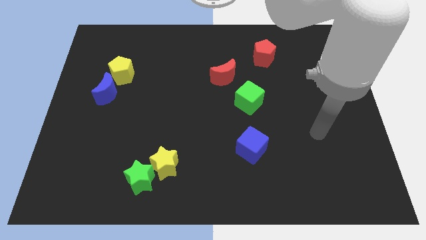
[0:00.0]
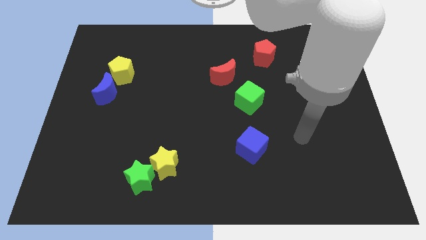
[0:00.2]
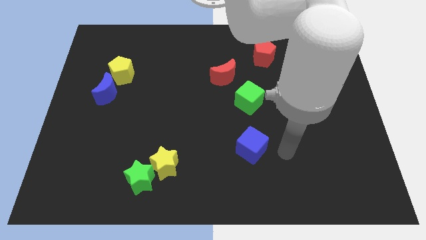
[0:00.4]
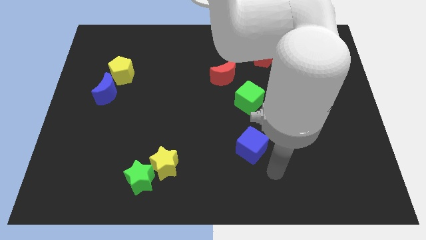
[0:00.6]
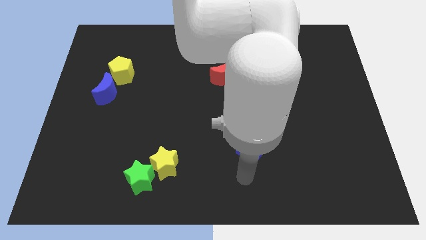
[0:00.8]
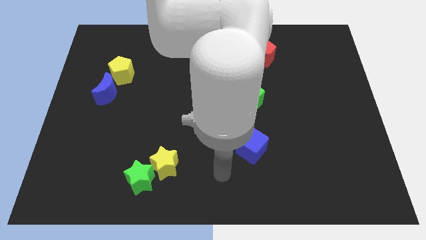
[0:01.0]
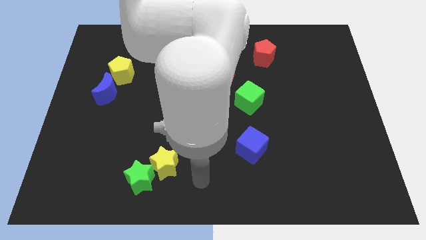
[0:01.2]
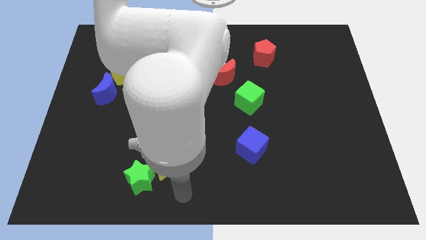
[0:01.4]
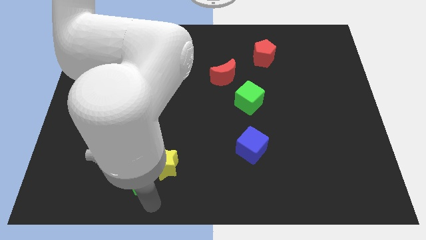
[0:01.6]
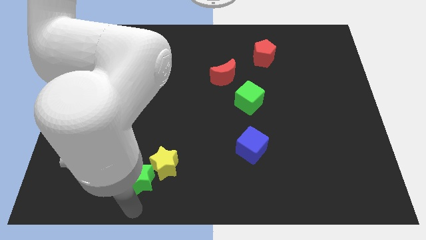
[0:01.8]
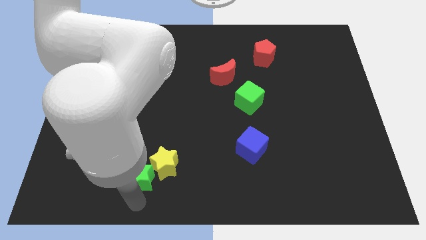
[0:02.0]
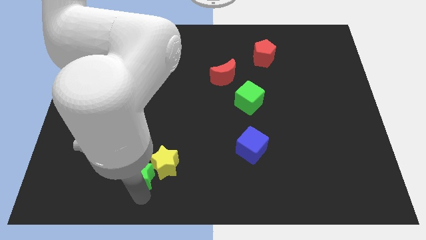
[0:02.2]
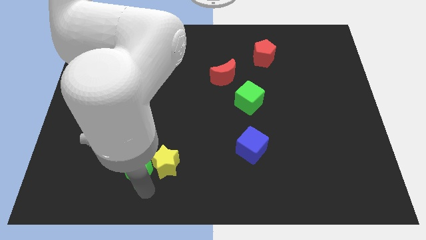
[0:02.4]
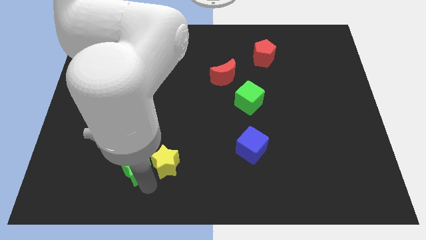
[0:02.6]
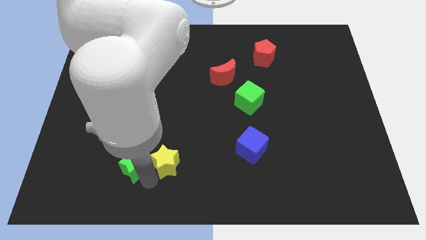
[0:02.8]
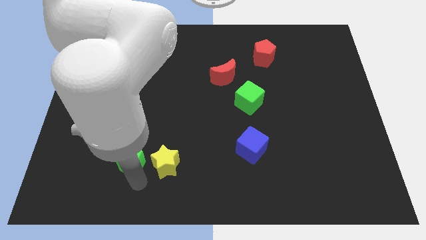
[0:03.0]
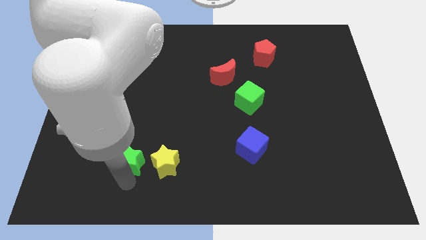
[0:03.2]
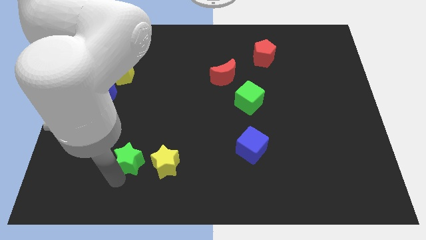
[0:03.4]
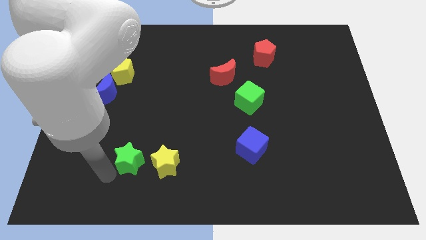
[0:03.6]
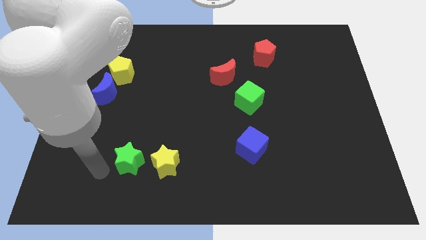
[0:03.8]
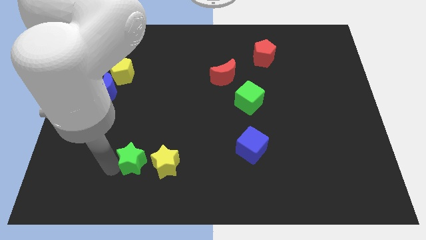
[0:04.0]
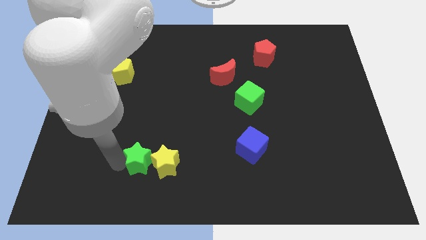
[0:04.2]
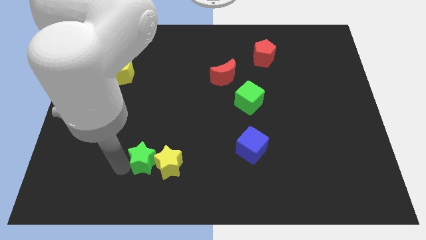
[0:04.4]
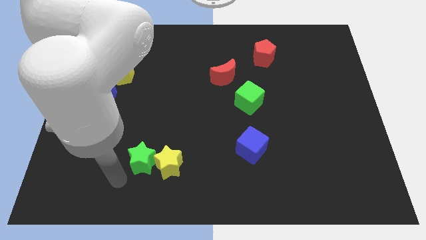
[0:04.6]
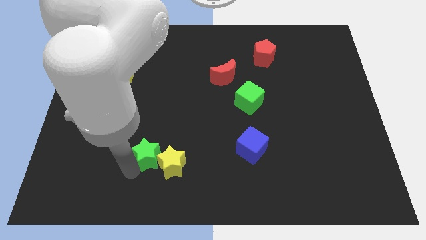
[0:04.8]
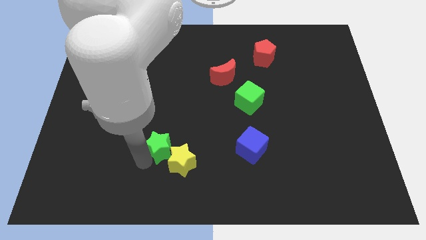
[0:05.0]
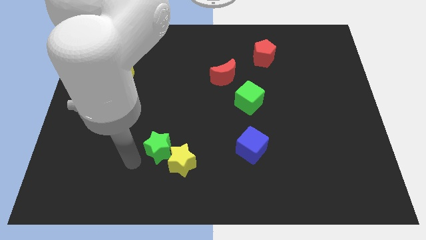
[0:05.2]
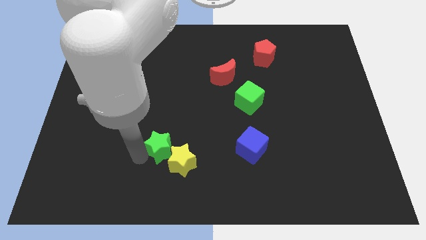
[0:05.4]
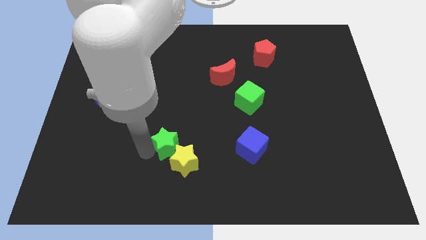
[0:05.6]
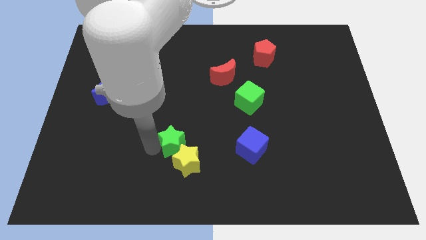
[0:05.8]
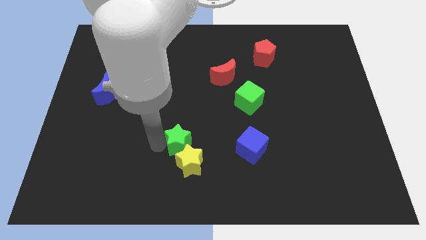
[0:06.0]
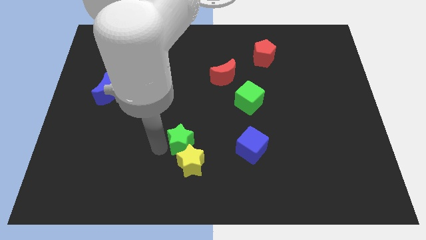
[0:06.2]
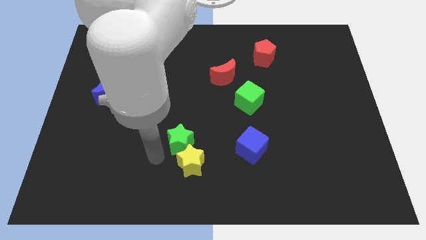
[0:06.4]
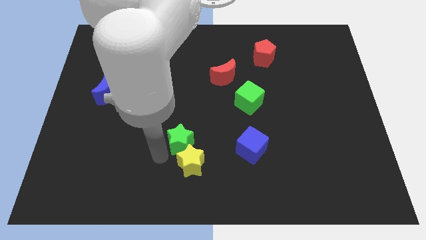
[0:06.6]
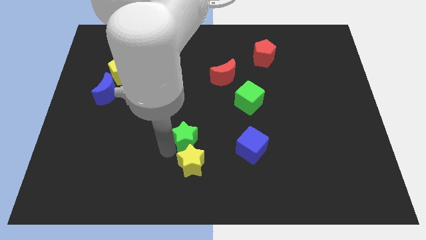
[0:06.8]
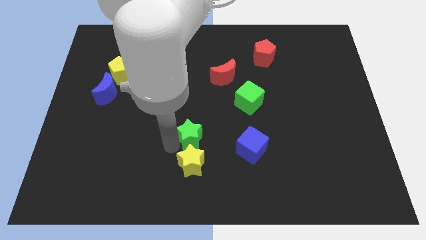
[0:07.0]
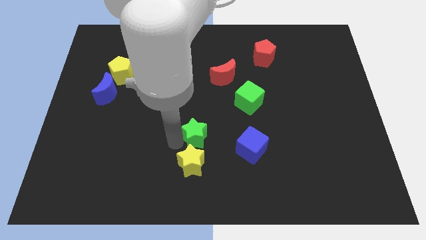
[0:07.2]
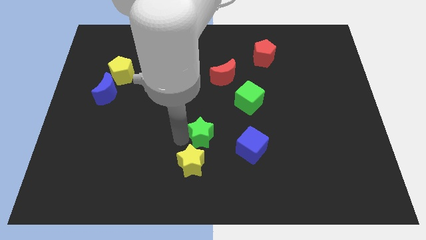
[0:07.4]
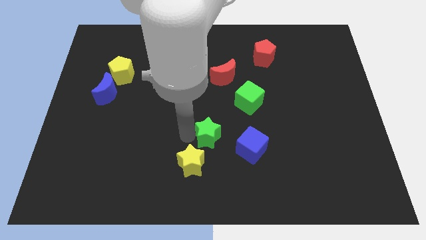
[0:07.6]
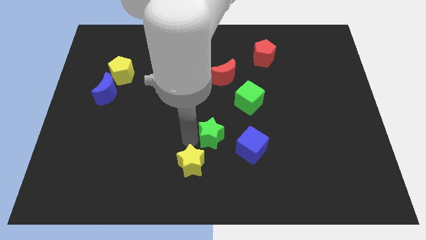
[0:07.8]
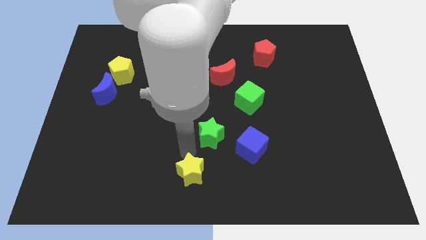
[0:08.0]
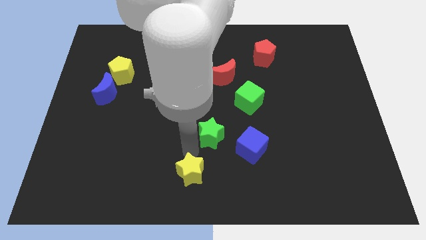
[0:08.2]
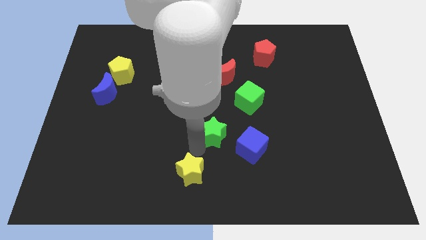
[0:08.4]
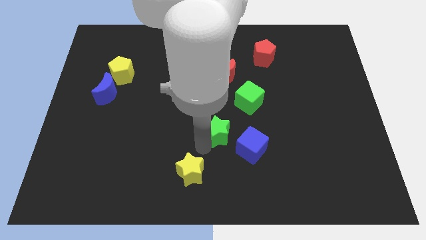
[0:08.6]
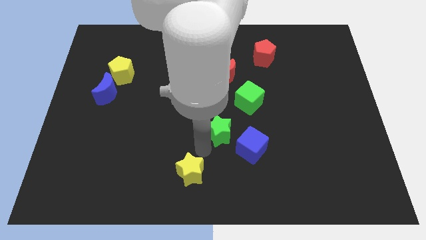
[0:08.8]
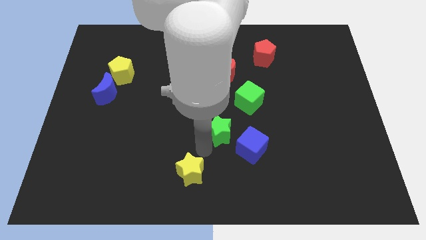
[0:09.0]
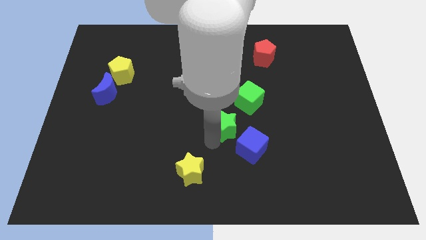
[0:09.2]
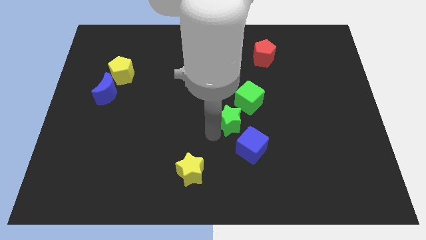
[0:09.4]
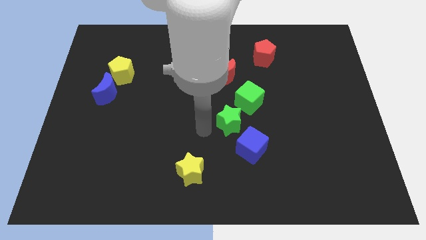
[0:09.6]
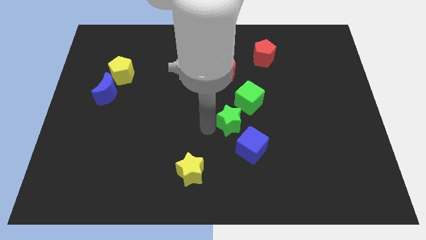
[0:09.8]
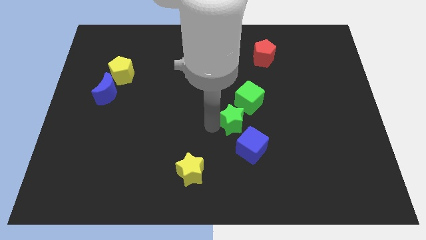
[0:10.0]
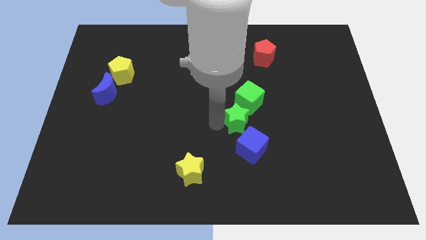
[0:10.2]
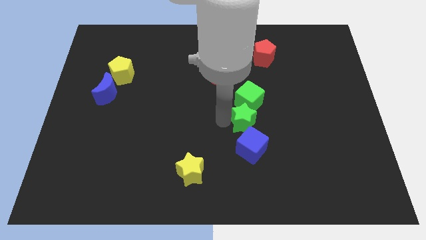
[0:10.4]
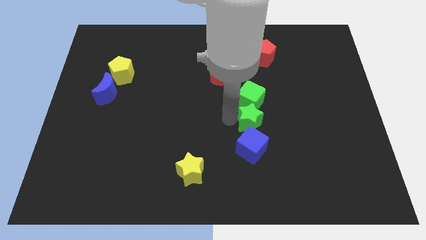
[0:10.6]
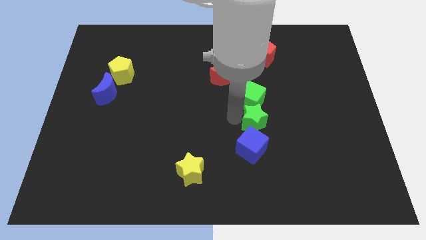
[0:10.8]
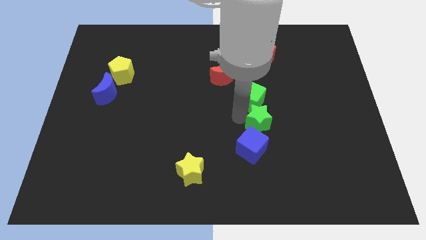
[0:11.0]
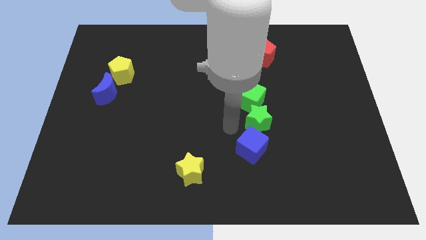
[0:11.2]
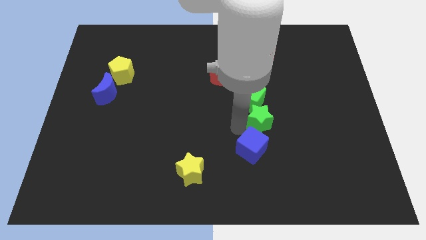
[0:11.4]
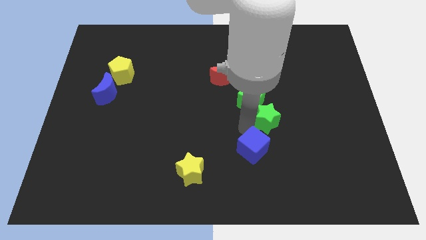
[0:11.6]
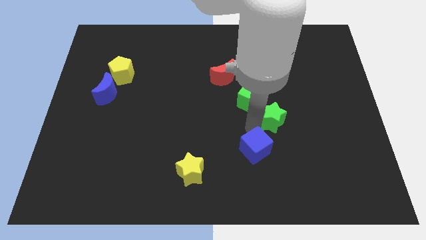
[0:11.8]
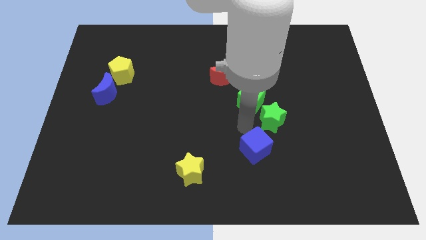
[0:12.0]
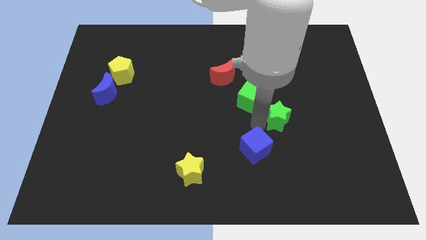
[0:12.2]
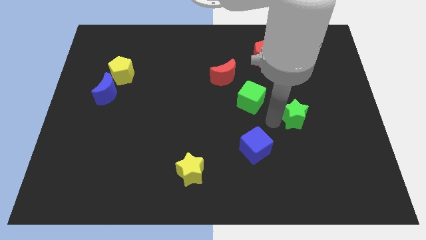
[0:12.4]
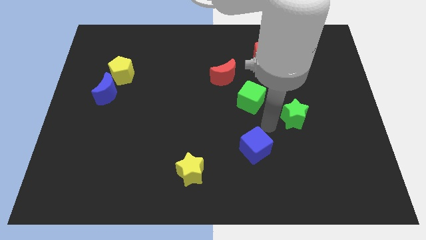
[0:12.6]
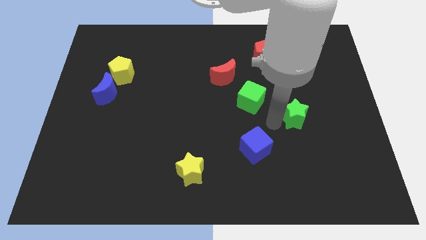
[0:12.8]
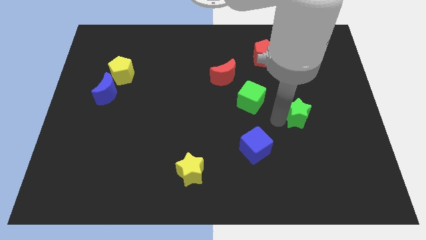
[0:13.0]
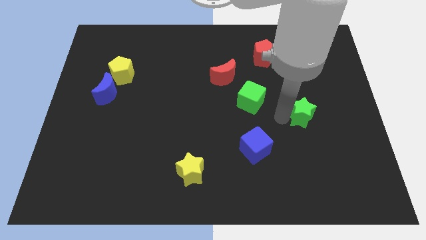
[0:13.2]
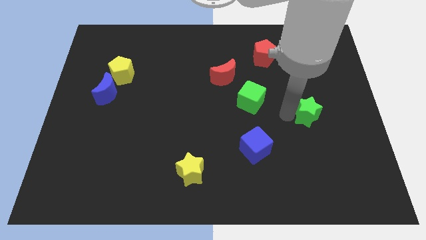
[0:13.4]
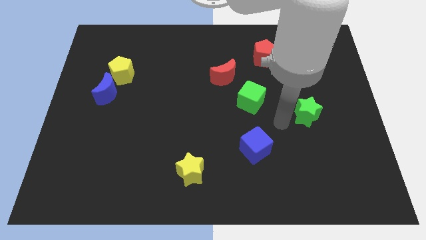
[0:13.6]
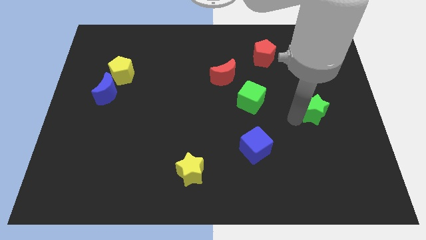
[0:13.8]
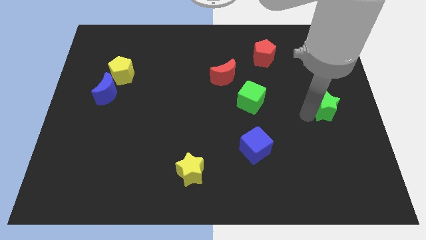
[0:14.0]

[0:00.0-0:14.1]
push the green star to the right side of the board

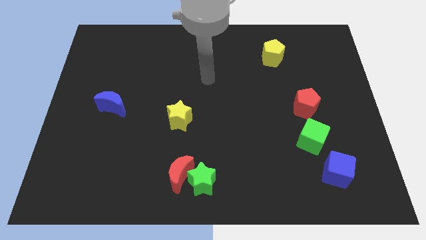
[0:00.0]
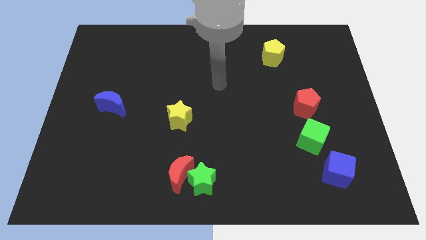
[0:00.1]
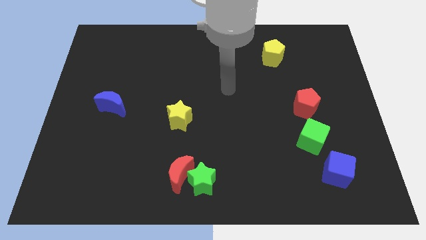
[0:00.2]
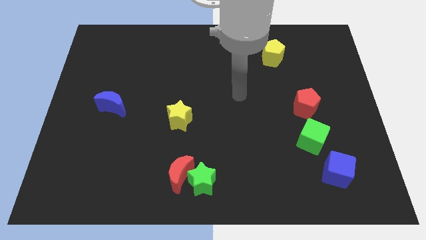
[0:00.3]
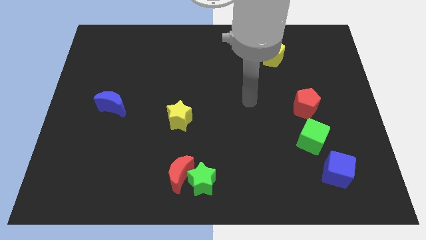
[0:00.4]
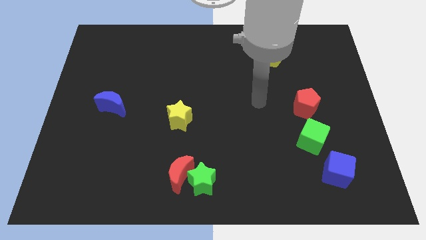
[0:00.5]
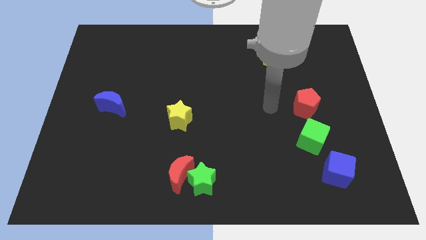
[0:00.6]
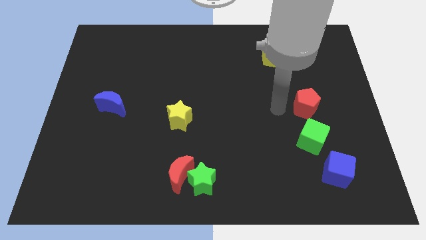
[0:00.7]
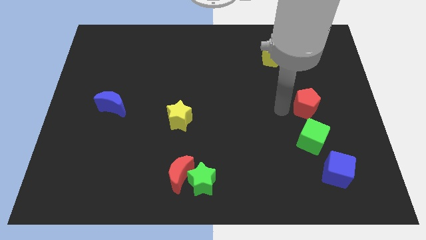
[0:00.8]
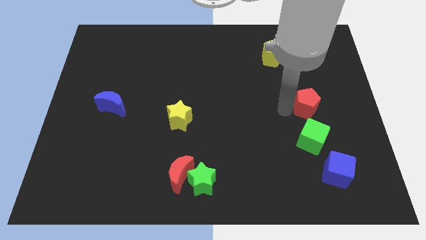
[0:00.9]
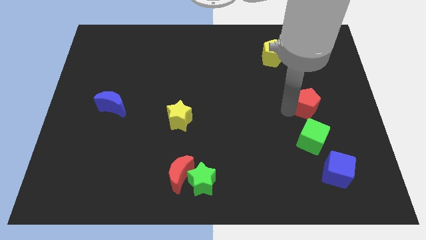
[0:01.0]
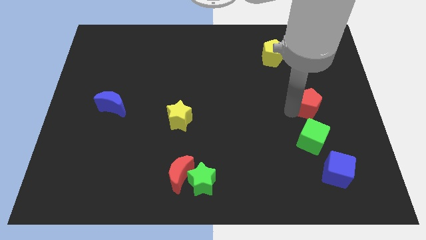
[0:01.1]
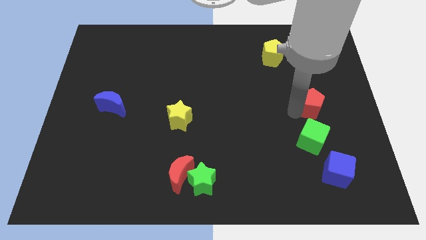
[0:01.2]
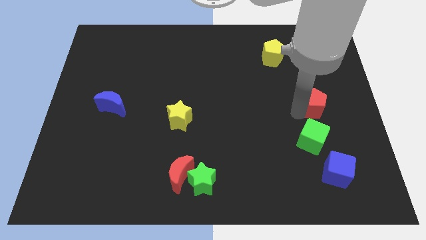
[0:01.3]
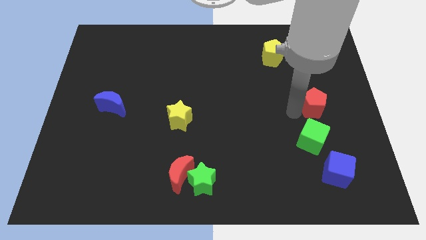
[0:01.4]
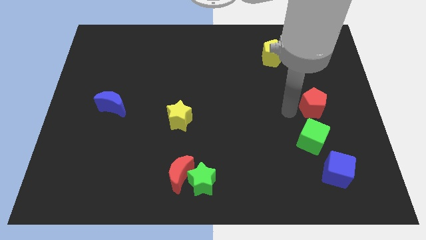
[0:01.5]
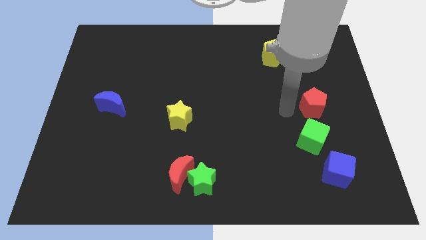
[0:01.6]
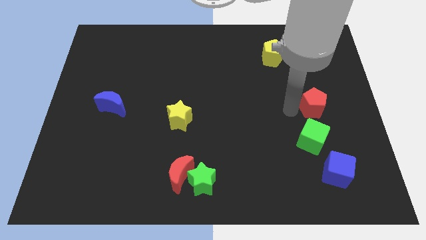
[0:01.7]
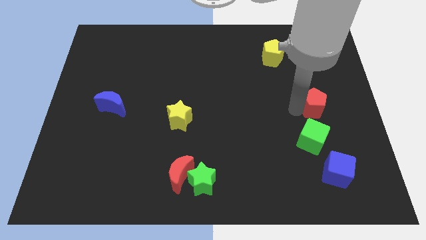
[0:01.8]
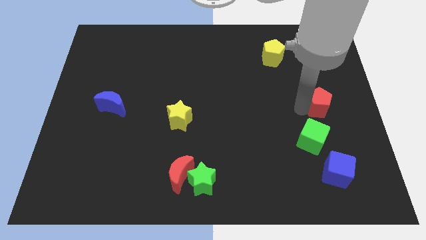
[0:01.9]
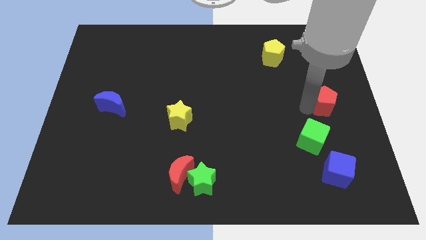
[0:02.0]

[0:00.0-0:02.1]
push the red pentagon to the right side of the board
